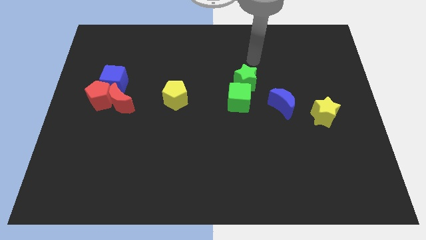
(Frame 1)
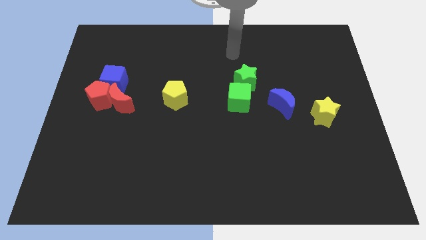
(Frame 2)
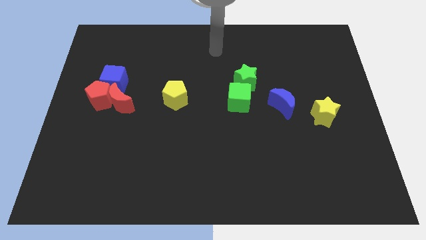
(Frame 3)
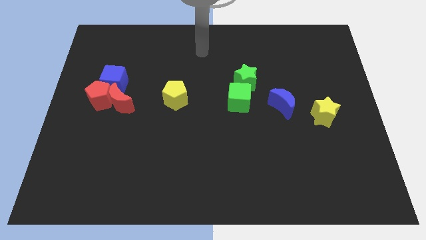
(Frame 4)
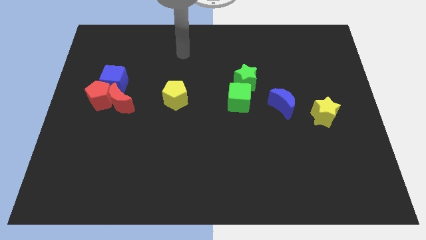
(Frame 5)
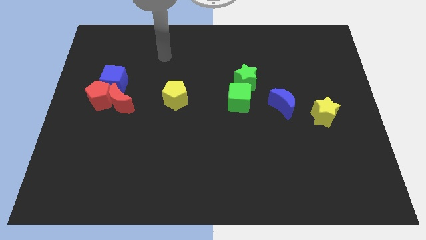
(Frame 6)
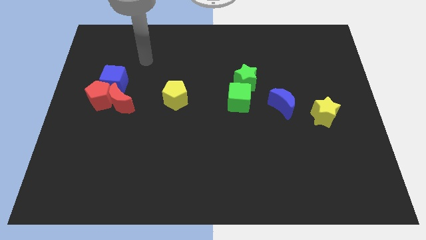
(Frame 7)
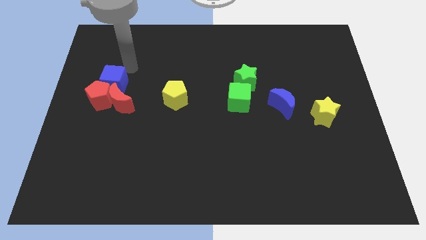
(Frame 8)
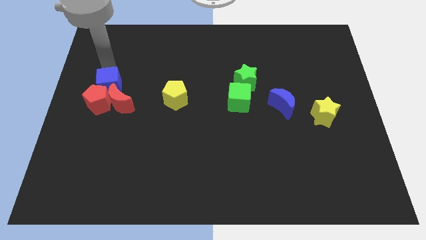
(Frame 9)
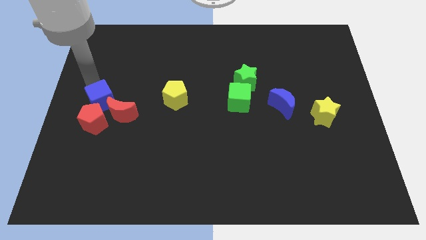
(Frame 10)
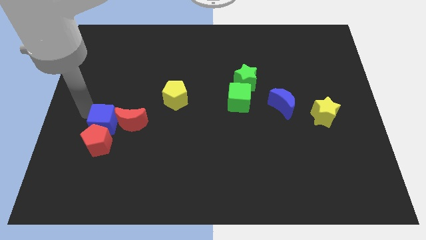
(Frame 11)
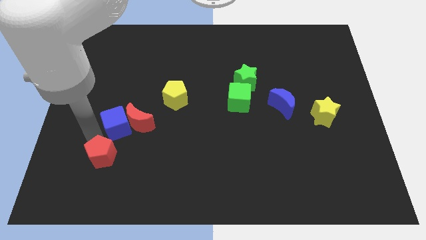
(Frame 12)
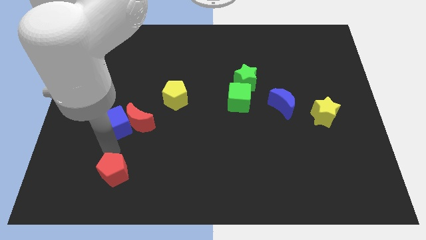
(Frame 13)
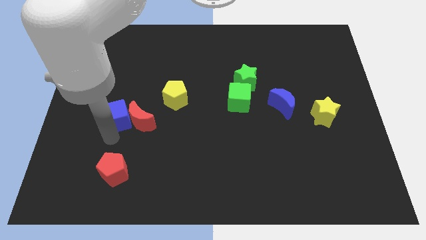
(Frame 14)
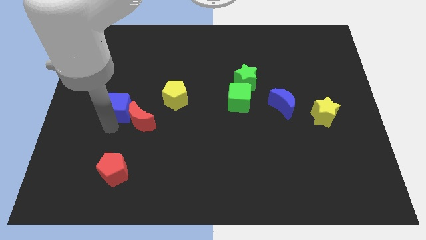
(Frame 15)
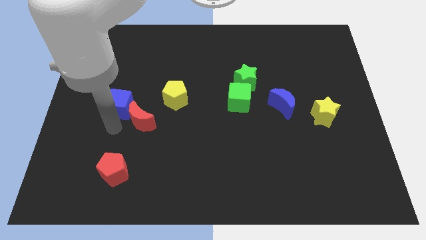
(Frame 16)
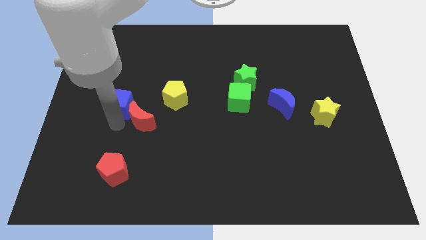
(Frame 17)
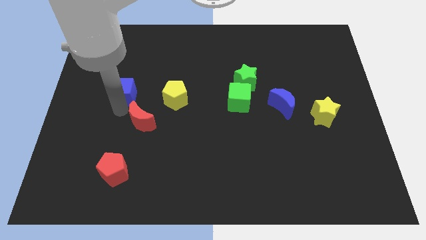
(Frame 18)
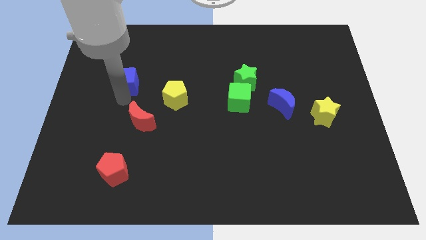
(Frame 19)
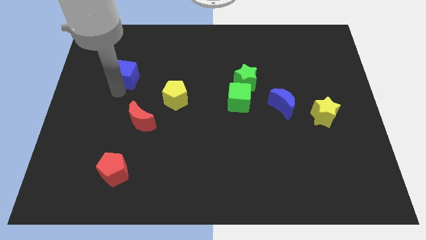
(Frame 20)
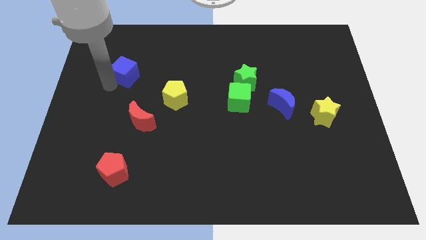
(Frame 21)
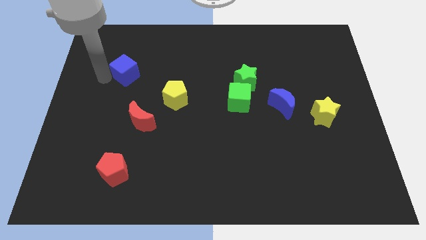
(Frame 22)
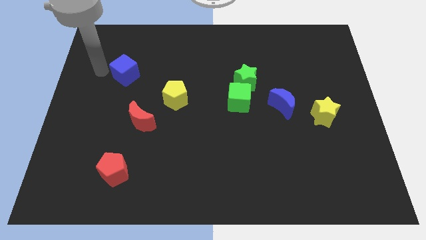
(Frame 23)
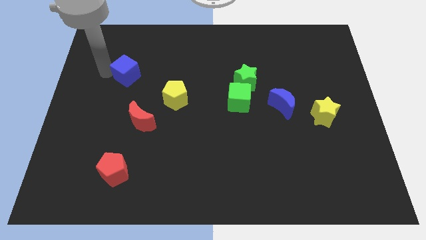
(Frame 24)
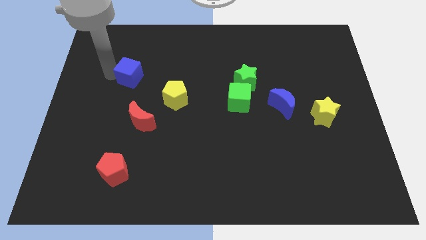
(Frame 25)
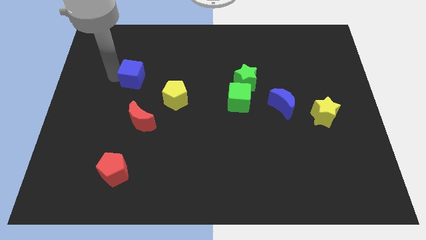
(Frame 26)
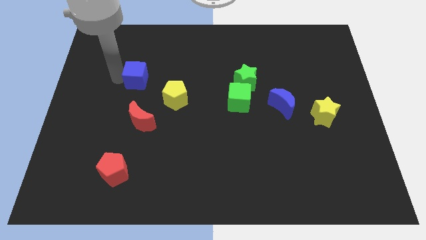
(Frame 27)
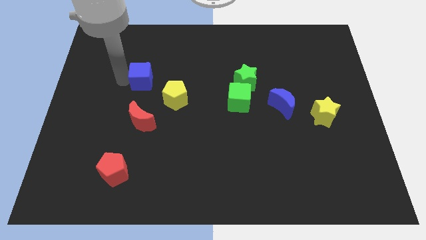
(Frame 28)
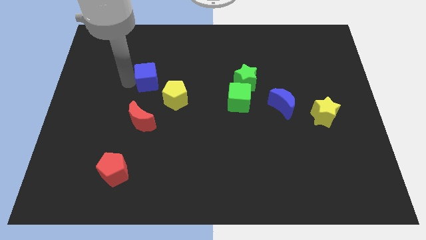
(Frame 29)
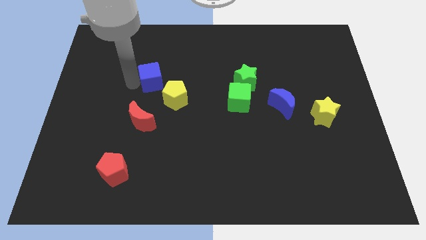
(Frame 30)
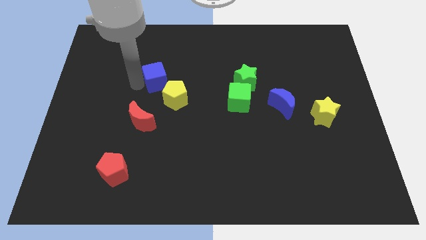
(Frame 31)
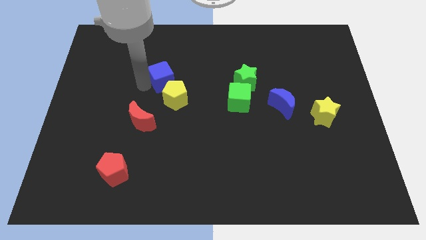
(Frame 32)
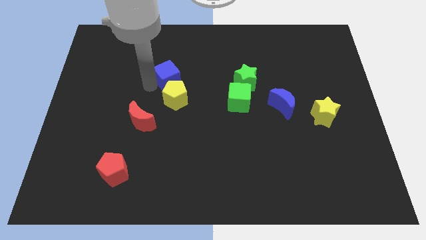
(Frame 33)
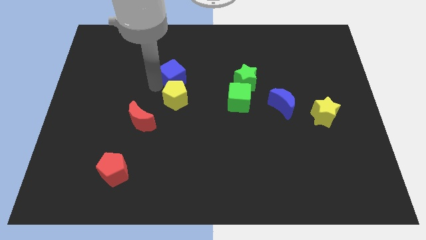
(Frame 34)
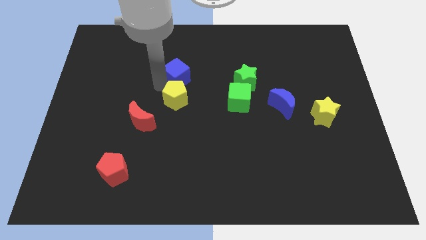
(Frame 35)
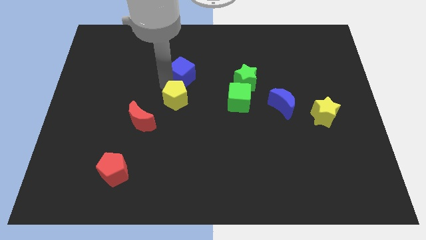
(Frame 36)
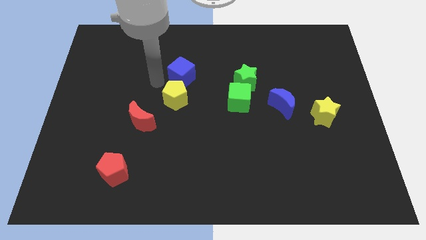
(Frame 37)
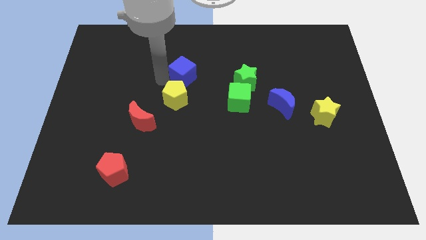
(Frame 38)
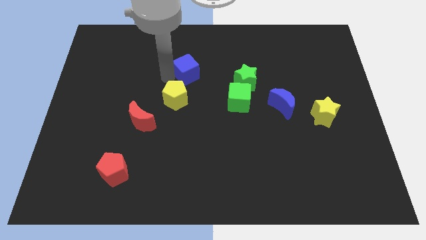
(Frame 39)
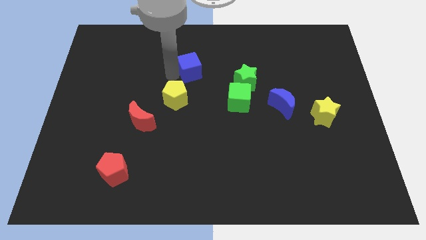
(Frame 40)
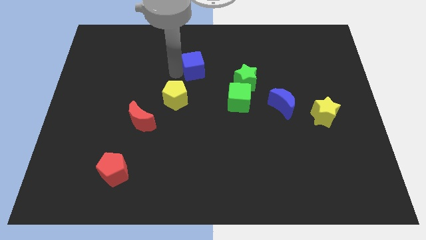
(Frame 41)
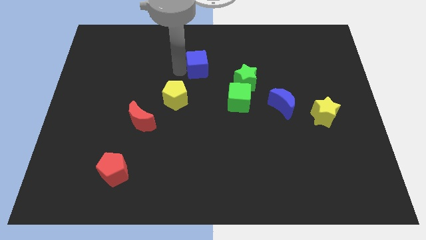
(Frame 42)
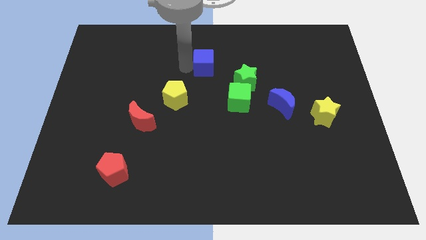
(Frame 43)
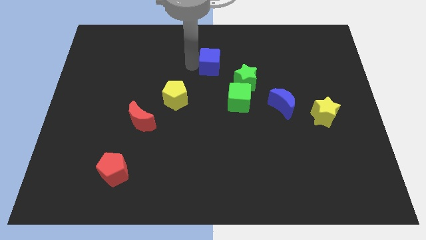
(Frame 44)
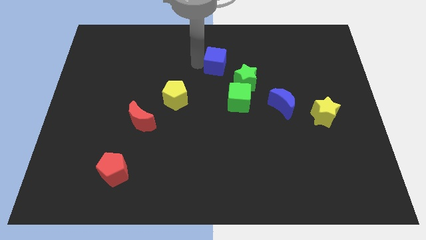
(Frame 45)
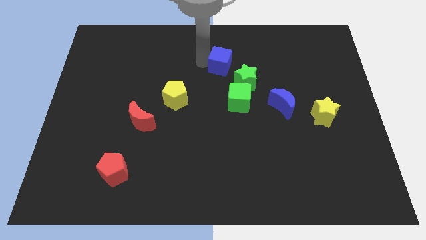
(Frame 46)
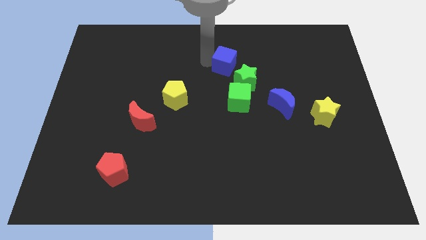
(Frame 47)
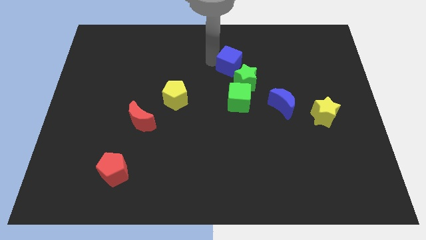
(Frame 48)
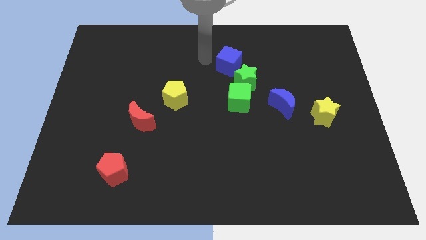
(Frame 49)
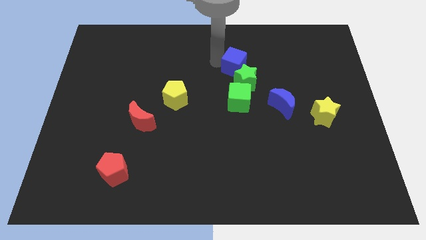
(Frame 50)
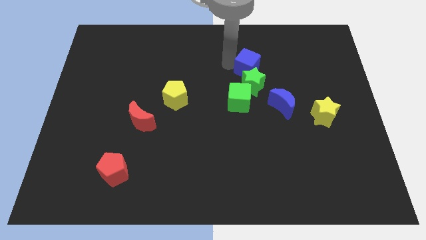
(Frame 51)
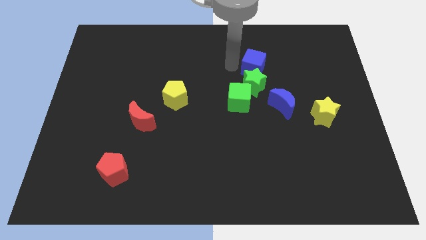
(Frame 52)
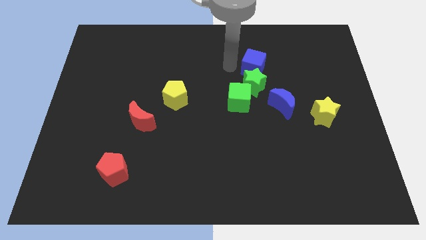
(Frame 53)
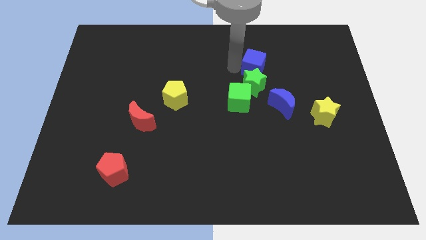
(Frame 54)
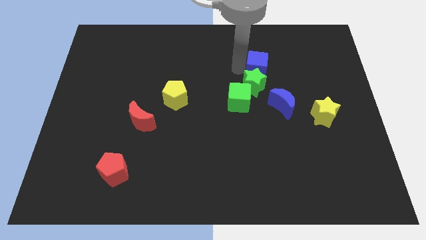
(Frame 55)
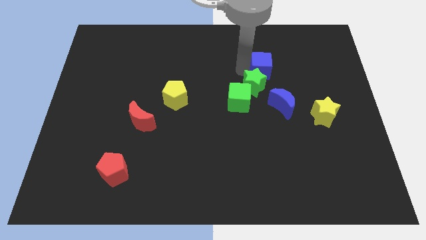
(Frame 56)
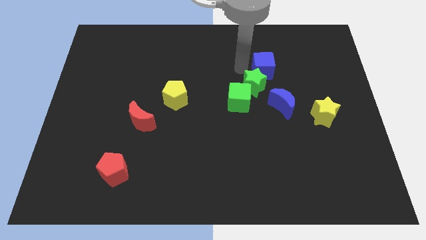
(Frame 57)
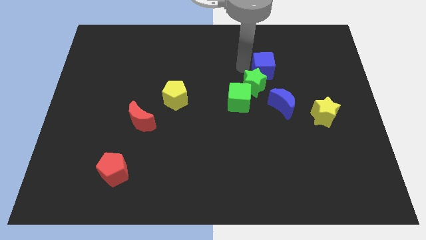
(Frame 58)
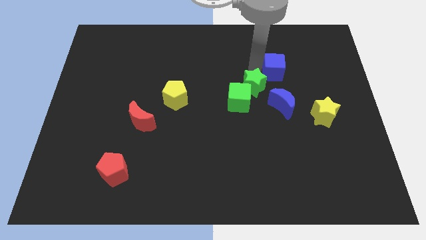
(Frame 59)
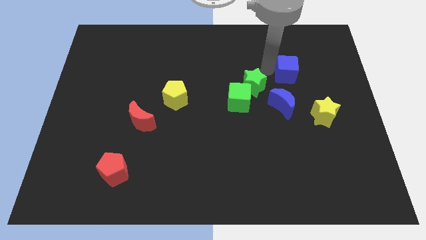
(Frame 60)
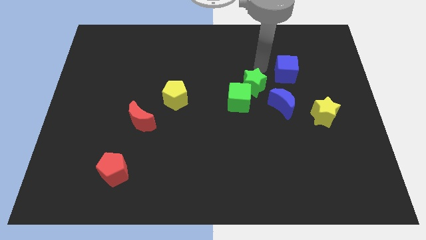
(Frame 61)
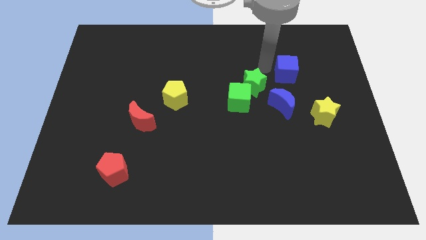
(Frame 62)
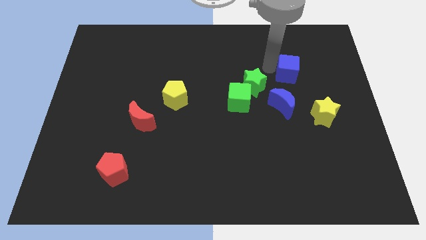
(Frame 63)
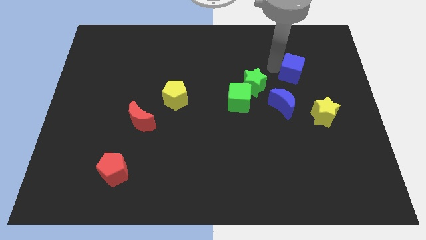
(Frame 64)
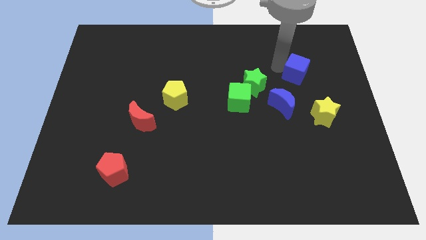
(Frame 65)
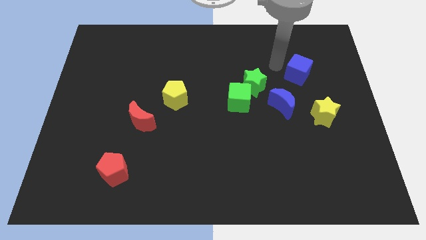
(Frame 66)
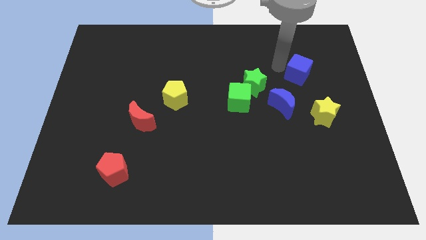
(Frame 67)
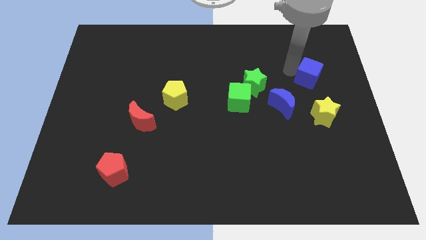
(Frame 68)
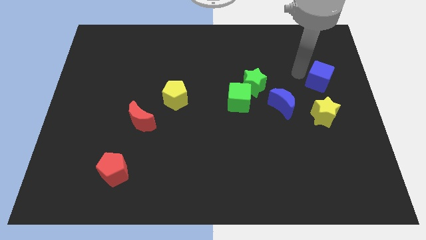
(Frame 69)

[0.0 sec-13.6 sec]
move the blue cube to the right side of the board
